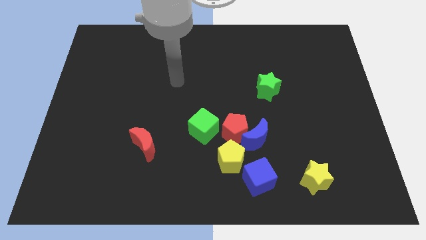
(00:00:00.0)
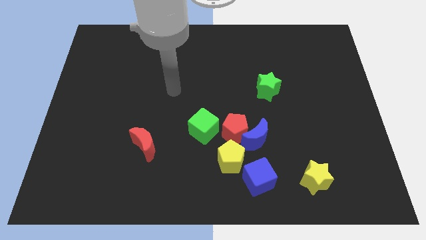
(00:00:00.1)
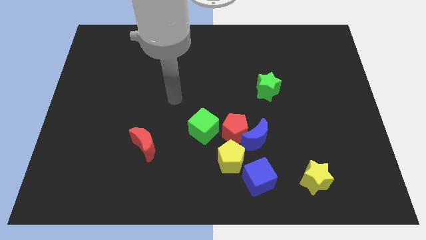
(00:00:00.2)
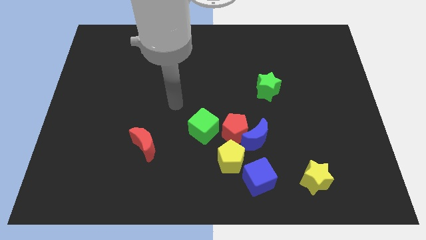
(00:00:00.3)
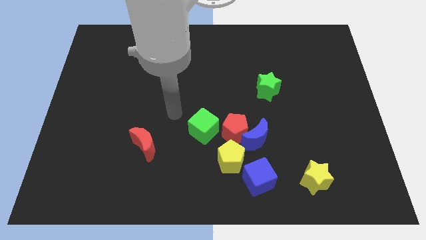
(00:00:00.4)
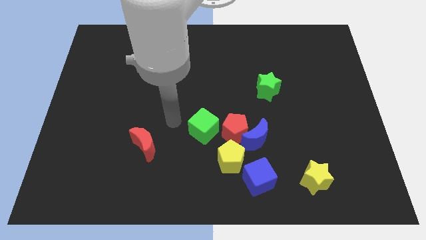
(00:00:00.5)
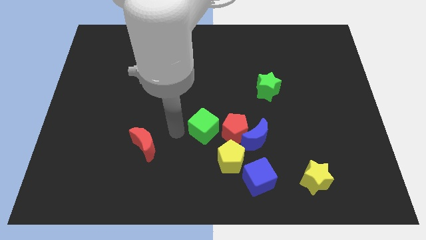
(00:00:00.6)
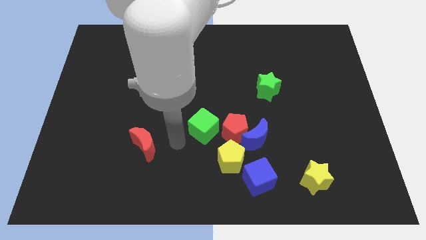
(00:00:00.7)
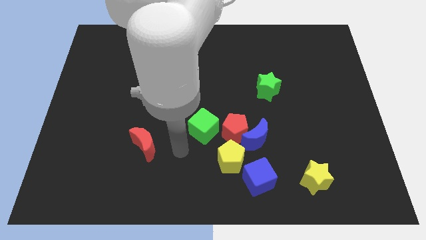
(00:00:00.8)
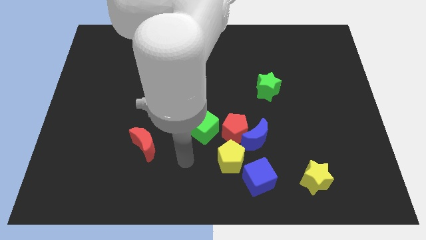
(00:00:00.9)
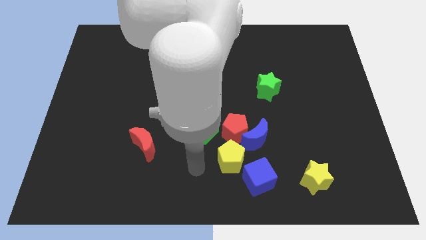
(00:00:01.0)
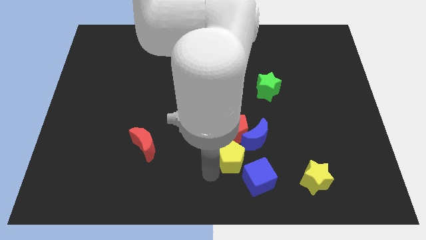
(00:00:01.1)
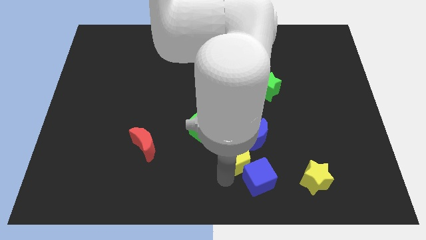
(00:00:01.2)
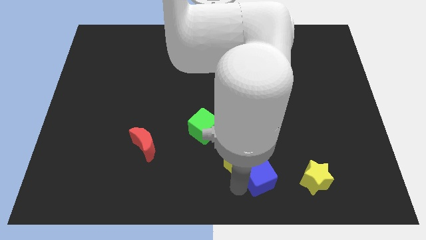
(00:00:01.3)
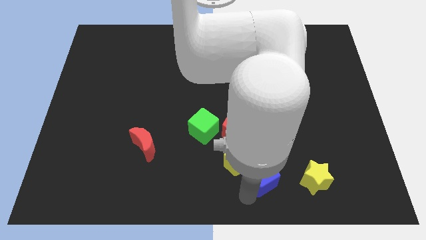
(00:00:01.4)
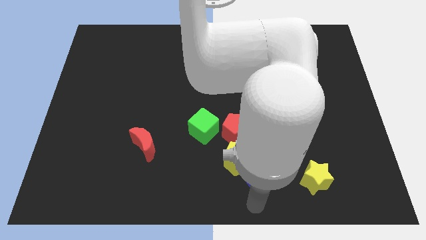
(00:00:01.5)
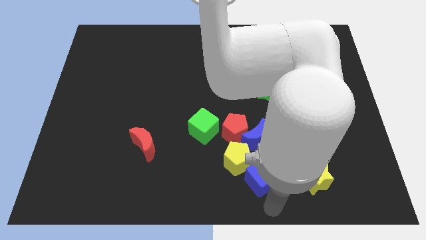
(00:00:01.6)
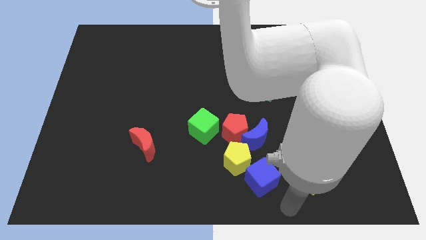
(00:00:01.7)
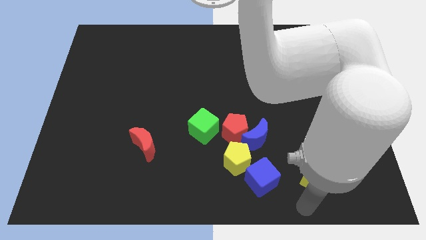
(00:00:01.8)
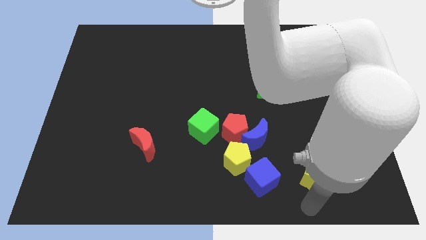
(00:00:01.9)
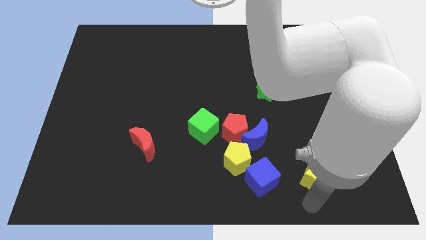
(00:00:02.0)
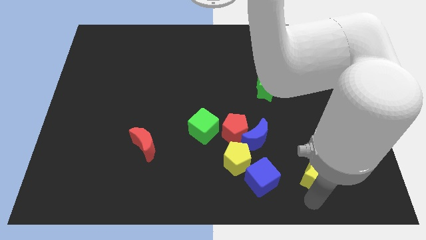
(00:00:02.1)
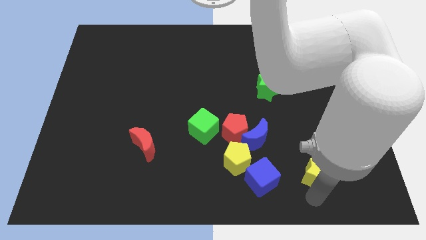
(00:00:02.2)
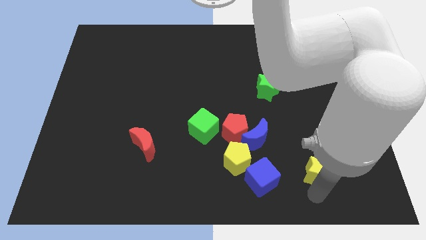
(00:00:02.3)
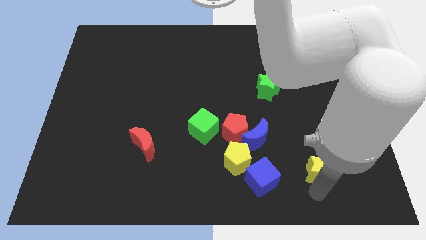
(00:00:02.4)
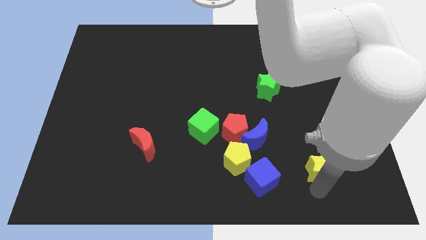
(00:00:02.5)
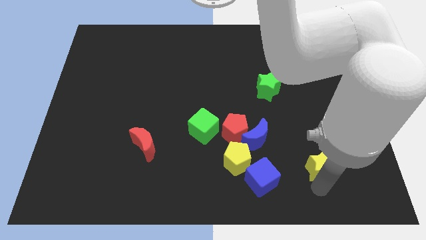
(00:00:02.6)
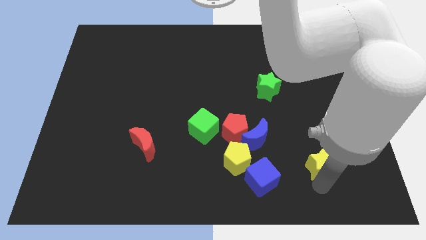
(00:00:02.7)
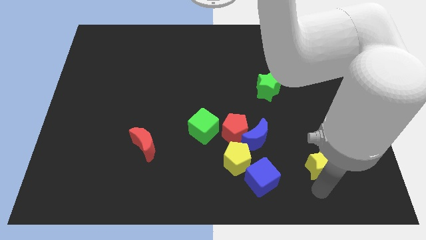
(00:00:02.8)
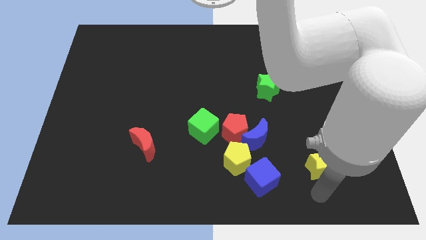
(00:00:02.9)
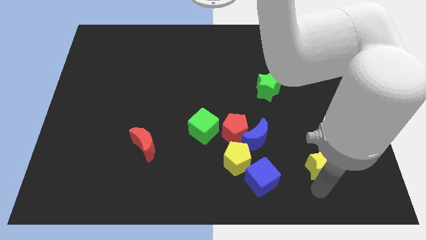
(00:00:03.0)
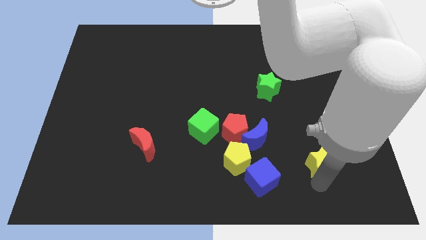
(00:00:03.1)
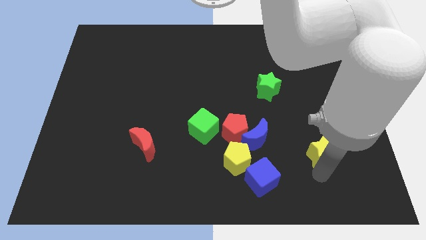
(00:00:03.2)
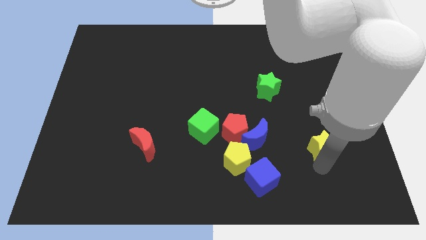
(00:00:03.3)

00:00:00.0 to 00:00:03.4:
slide the yellow star a little upwards

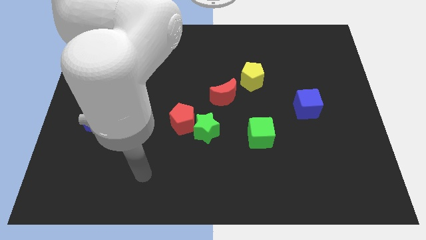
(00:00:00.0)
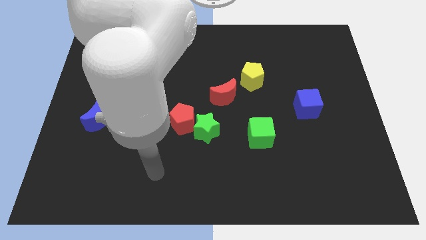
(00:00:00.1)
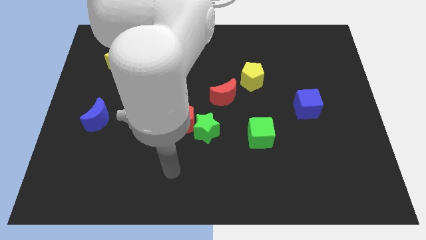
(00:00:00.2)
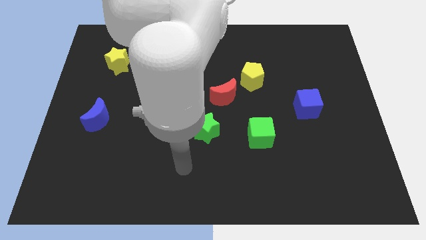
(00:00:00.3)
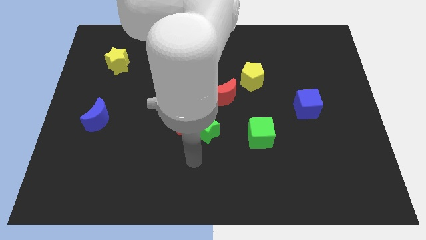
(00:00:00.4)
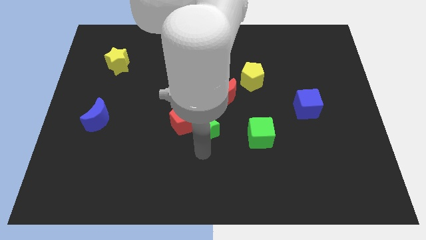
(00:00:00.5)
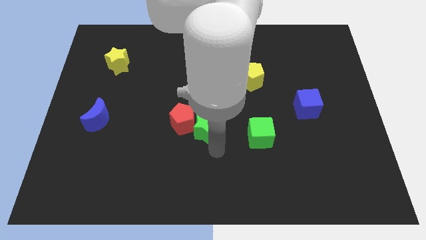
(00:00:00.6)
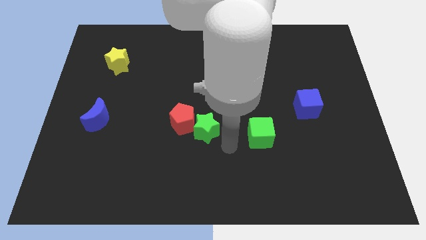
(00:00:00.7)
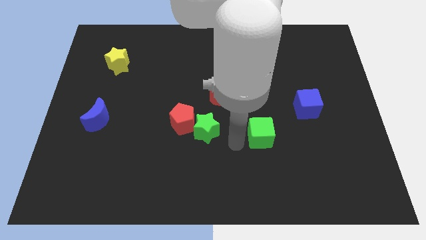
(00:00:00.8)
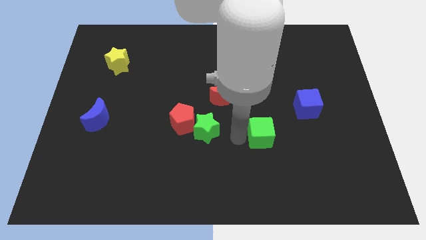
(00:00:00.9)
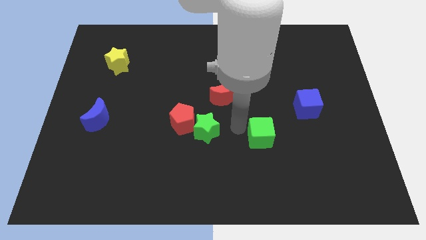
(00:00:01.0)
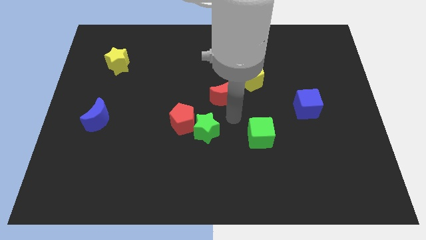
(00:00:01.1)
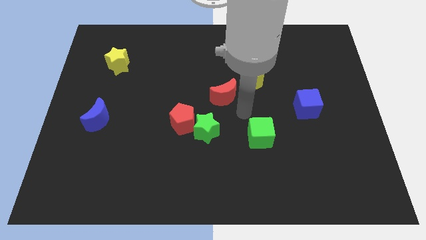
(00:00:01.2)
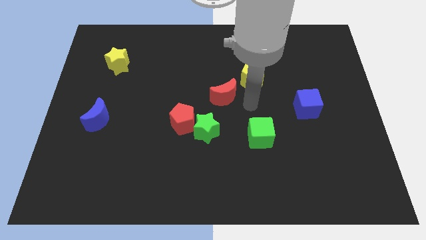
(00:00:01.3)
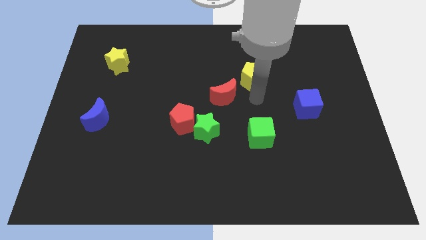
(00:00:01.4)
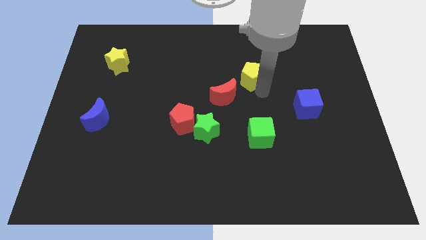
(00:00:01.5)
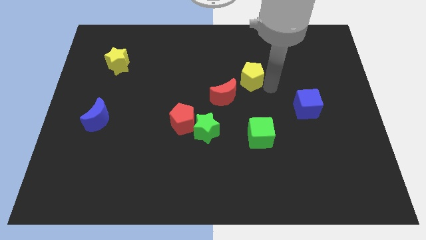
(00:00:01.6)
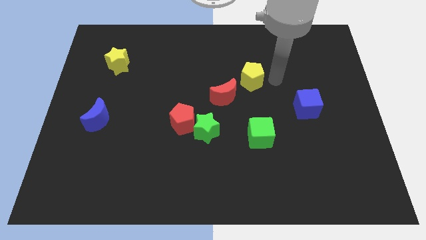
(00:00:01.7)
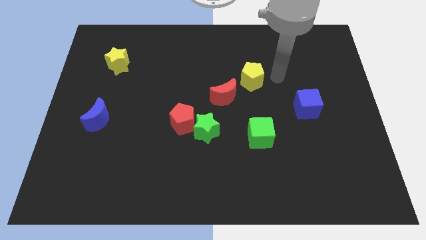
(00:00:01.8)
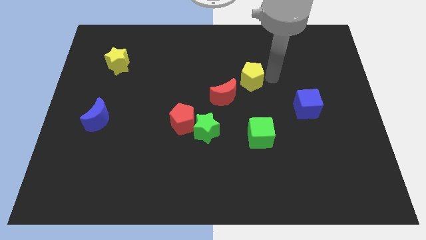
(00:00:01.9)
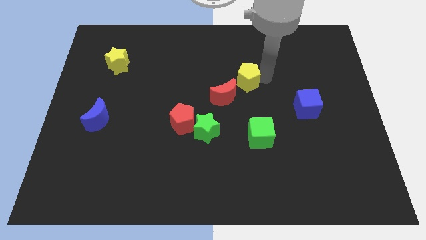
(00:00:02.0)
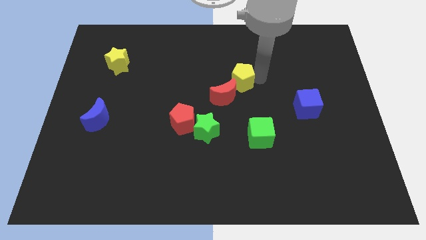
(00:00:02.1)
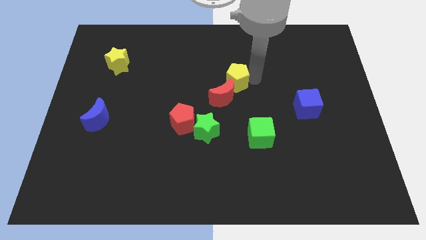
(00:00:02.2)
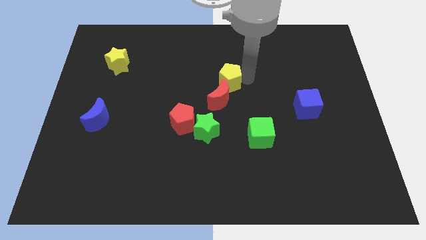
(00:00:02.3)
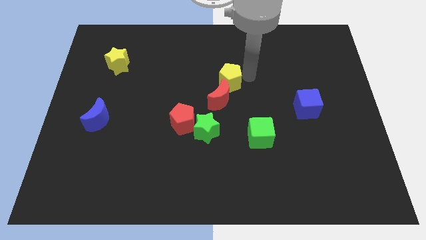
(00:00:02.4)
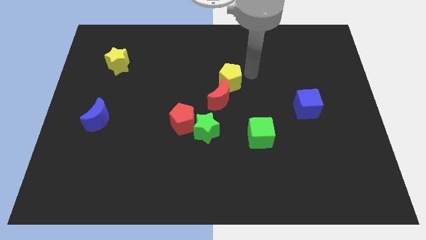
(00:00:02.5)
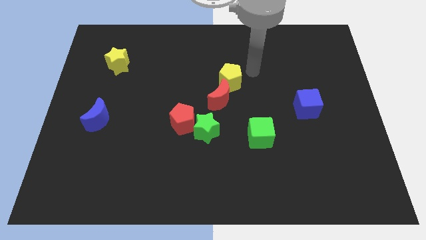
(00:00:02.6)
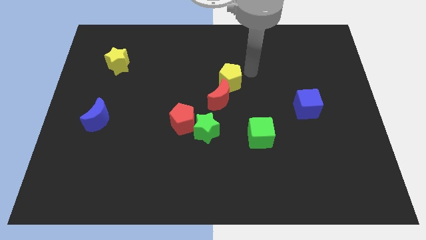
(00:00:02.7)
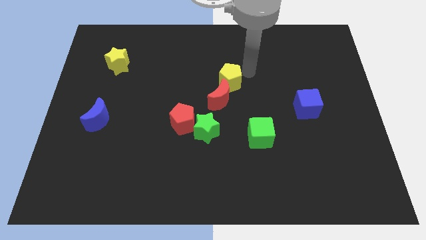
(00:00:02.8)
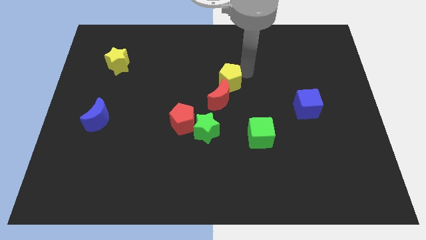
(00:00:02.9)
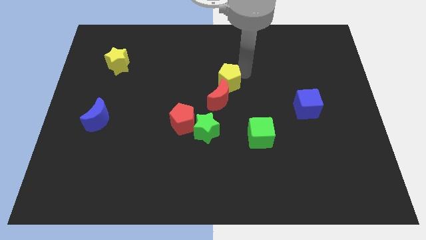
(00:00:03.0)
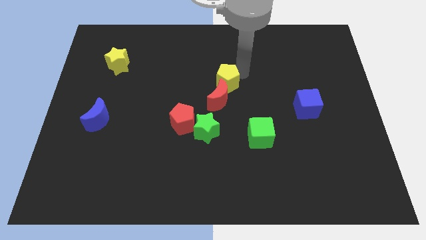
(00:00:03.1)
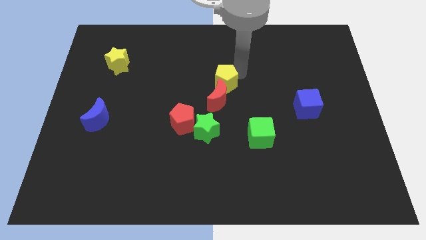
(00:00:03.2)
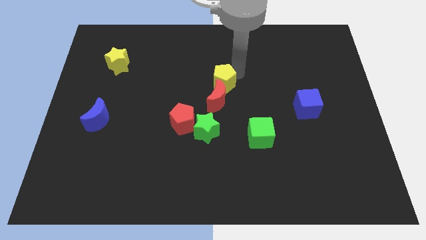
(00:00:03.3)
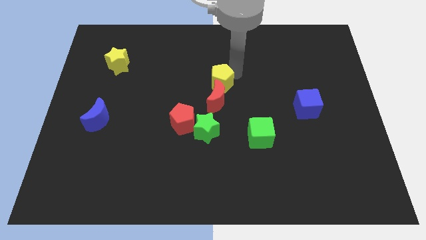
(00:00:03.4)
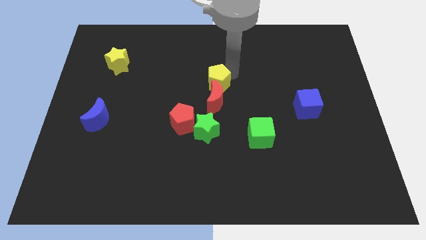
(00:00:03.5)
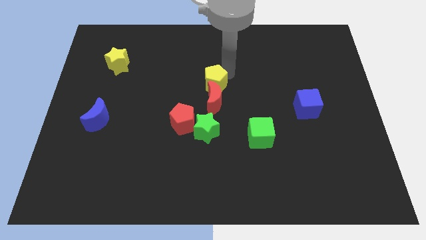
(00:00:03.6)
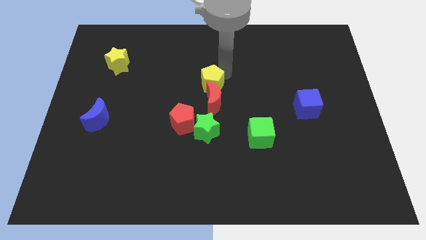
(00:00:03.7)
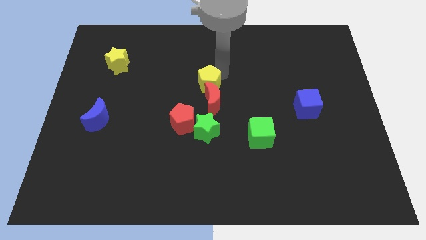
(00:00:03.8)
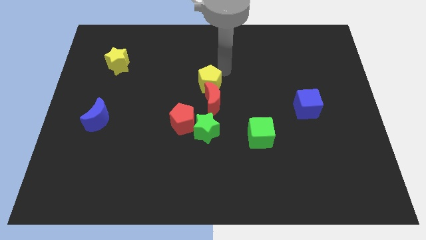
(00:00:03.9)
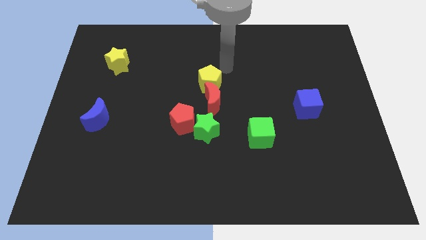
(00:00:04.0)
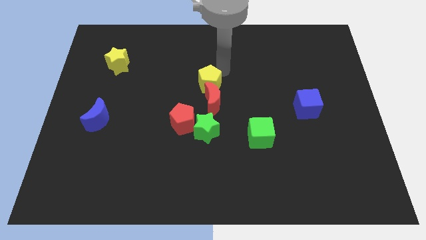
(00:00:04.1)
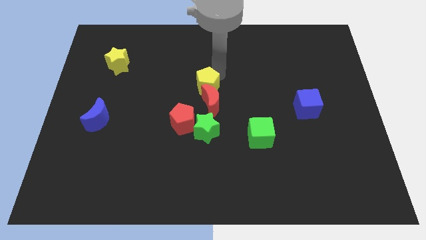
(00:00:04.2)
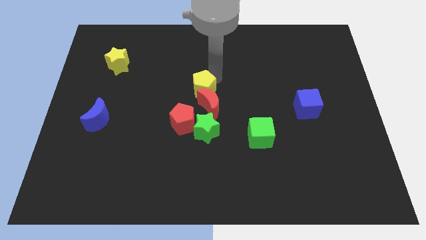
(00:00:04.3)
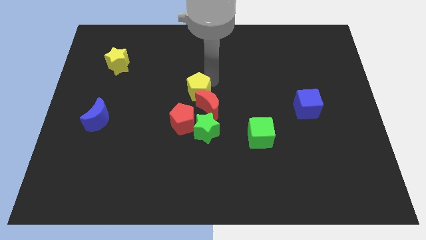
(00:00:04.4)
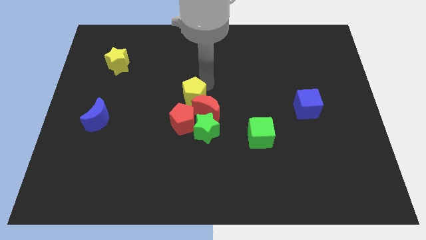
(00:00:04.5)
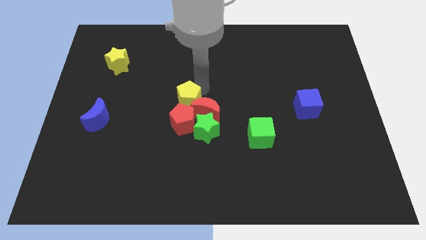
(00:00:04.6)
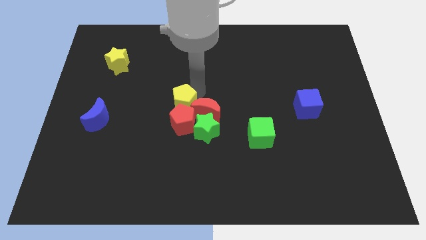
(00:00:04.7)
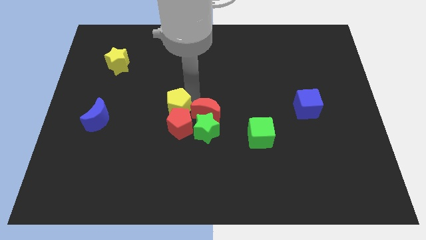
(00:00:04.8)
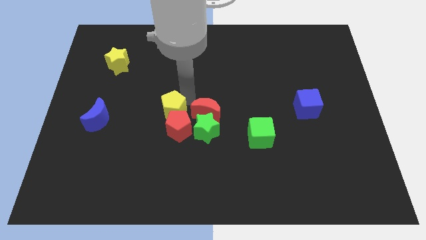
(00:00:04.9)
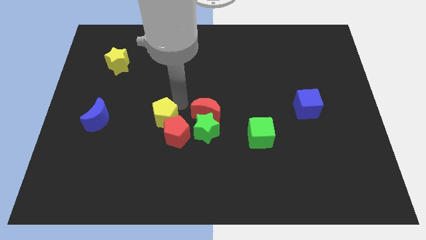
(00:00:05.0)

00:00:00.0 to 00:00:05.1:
move the yellow pentagon down and left
